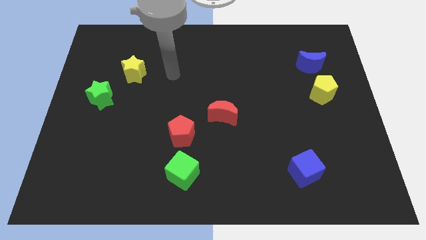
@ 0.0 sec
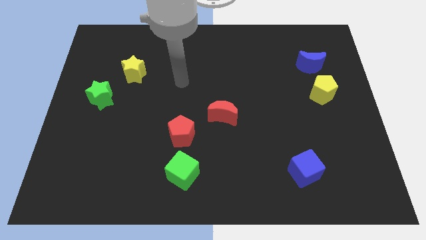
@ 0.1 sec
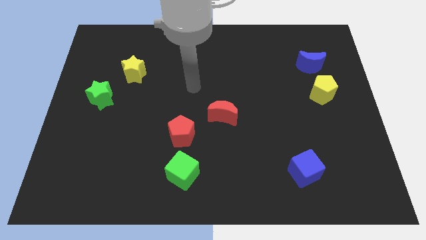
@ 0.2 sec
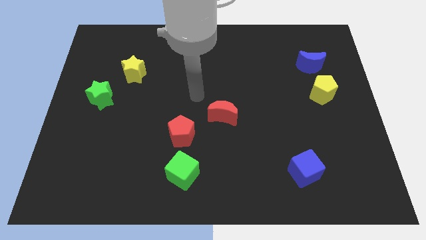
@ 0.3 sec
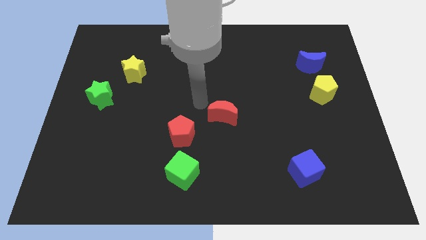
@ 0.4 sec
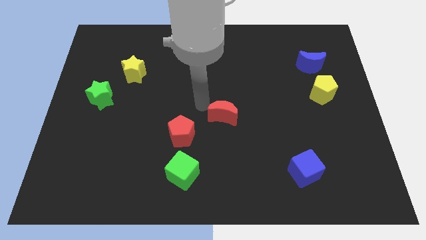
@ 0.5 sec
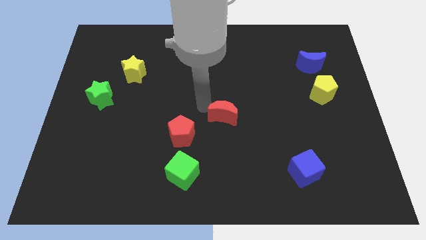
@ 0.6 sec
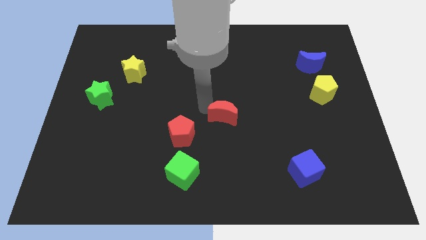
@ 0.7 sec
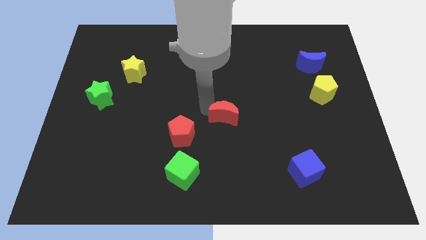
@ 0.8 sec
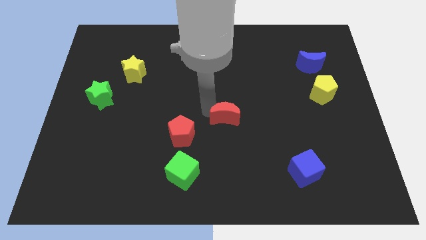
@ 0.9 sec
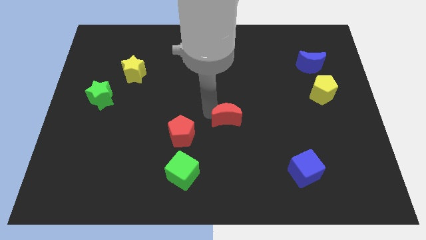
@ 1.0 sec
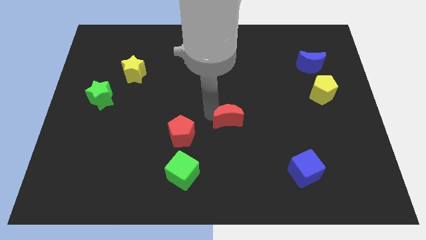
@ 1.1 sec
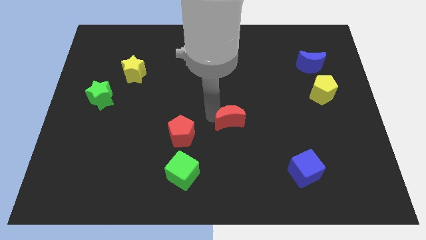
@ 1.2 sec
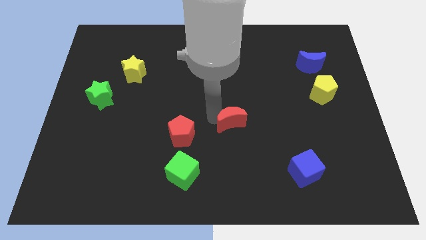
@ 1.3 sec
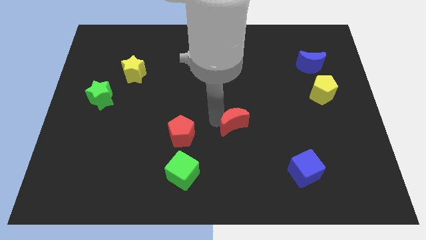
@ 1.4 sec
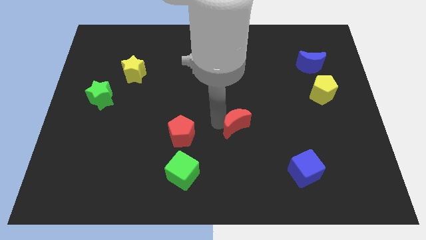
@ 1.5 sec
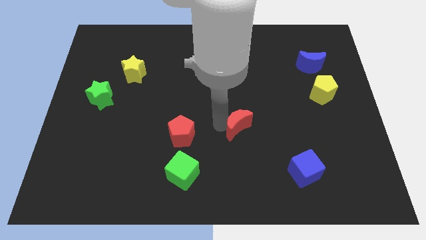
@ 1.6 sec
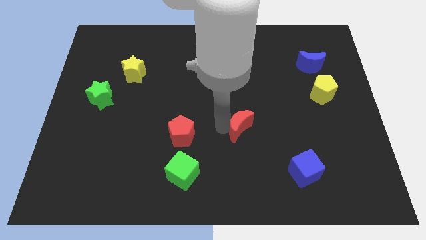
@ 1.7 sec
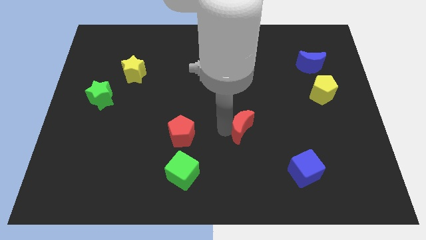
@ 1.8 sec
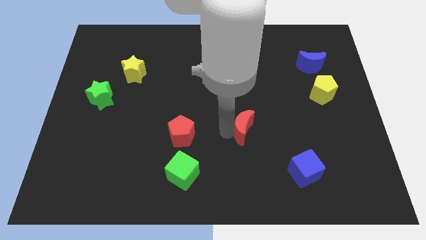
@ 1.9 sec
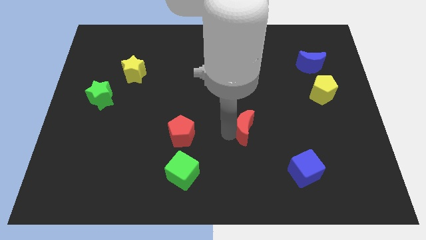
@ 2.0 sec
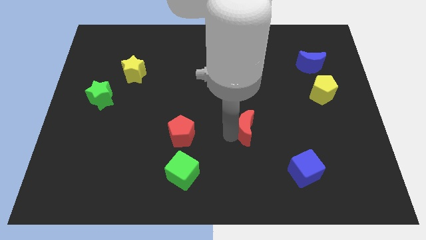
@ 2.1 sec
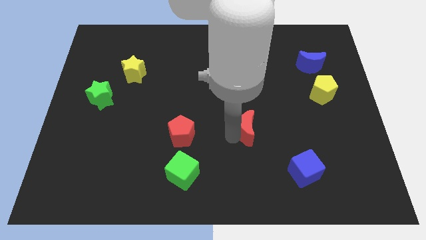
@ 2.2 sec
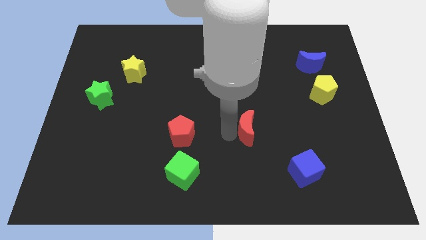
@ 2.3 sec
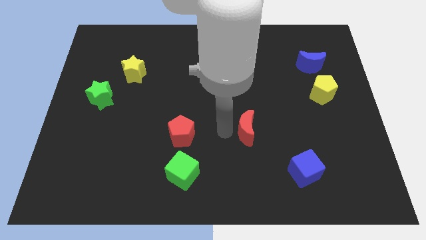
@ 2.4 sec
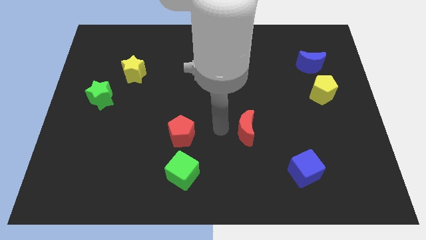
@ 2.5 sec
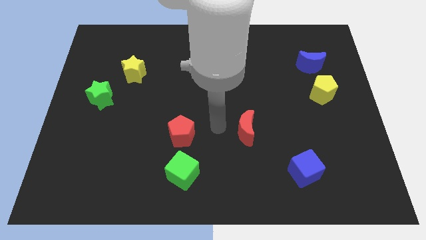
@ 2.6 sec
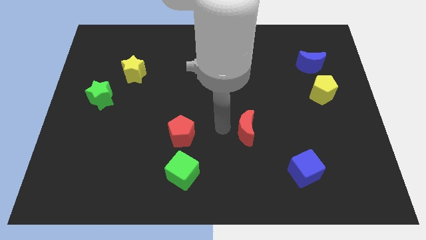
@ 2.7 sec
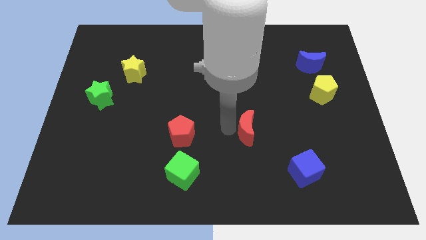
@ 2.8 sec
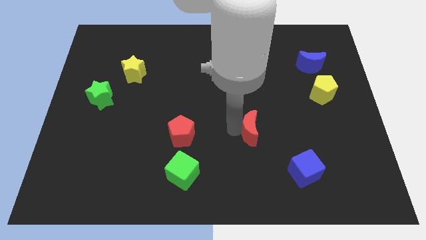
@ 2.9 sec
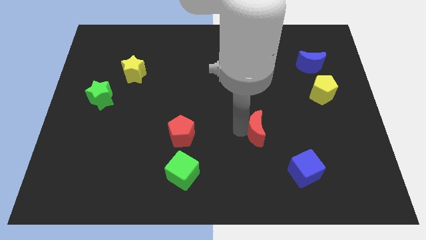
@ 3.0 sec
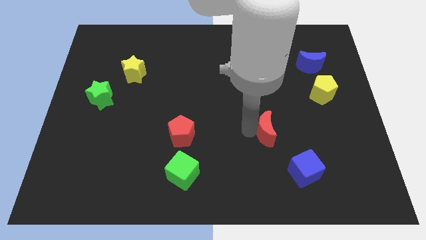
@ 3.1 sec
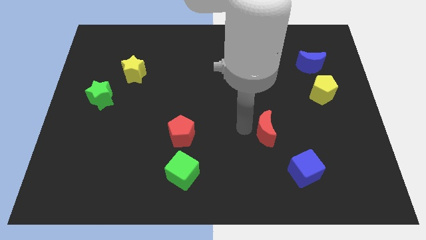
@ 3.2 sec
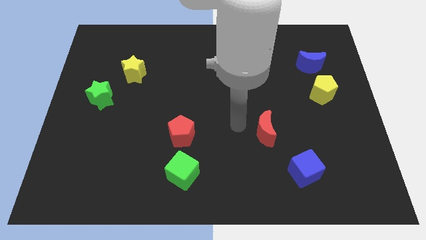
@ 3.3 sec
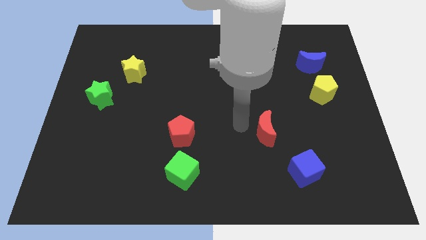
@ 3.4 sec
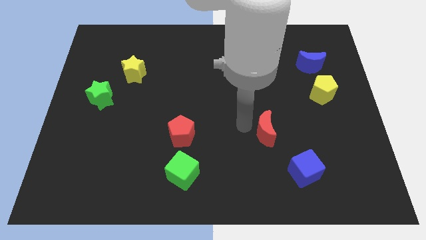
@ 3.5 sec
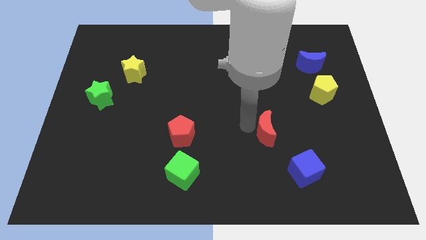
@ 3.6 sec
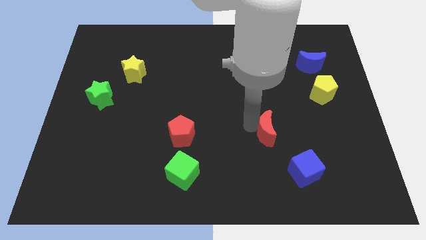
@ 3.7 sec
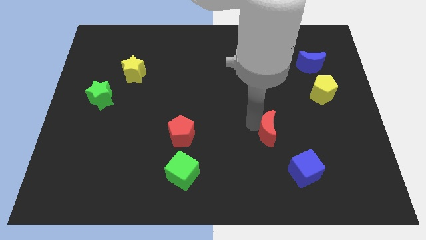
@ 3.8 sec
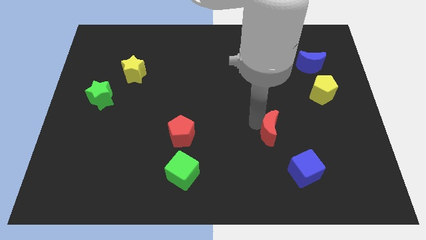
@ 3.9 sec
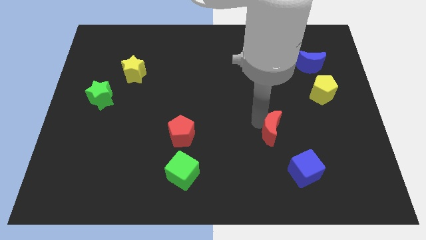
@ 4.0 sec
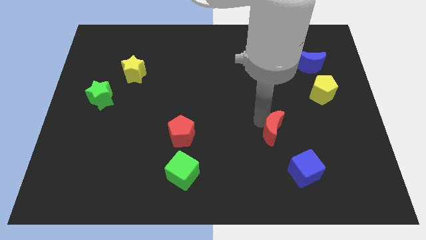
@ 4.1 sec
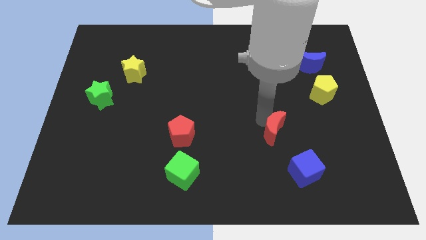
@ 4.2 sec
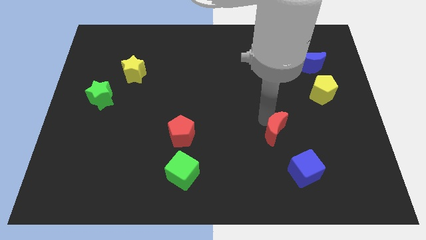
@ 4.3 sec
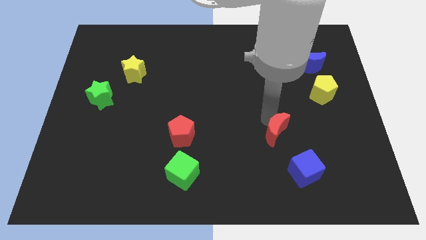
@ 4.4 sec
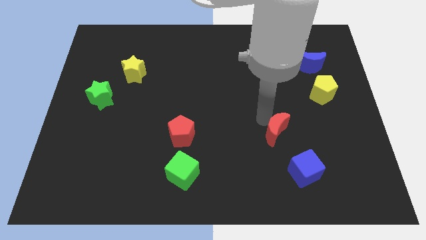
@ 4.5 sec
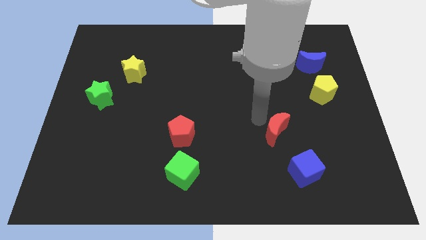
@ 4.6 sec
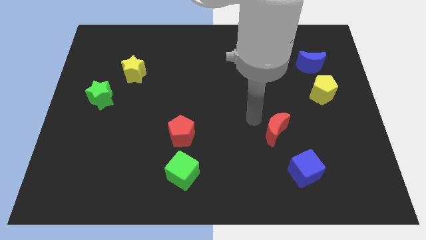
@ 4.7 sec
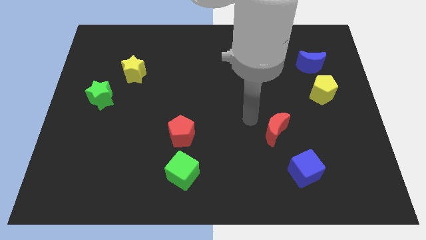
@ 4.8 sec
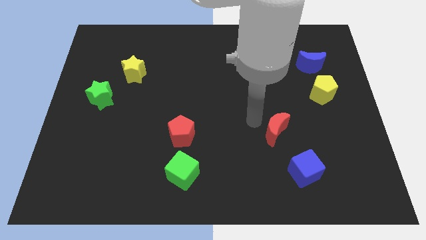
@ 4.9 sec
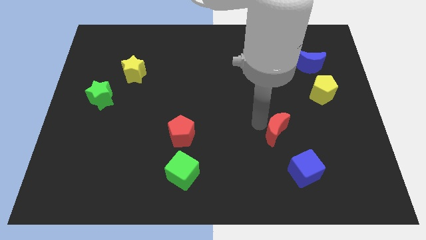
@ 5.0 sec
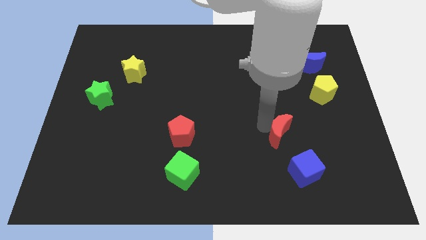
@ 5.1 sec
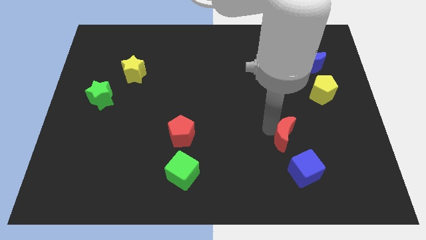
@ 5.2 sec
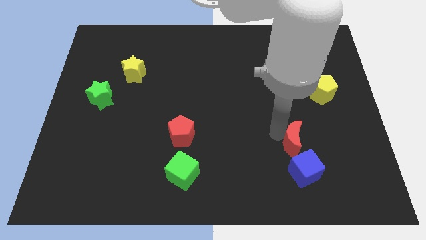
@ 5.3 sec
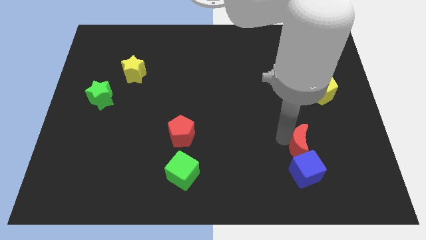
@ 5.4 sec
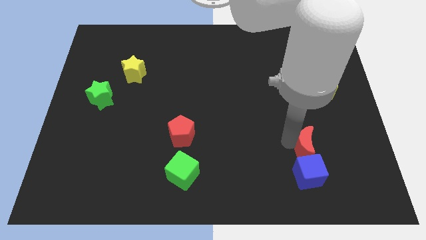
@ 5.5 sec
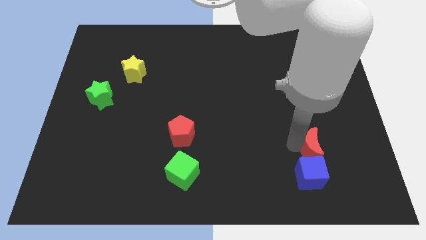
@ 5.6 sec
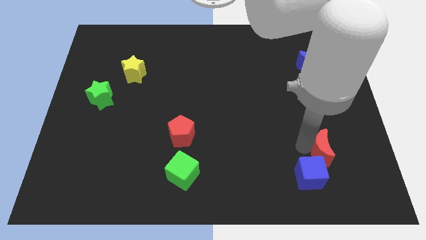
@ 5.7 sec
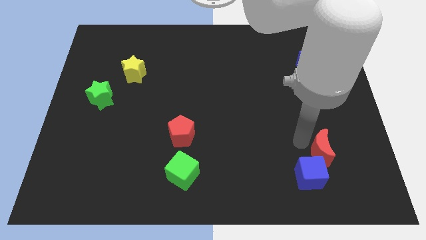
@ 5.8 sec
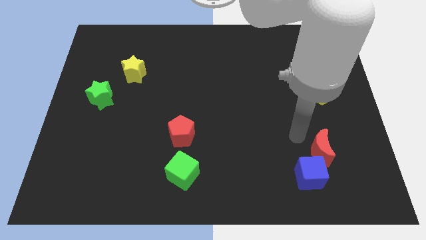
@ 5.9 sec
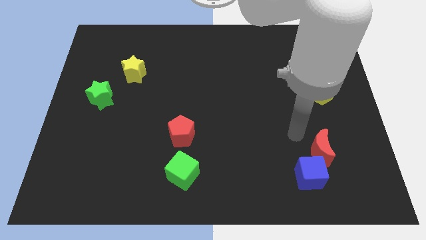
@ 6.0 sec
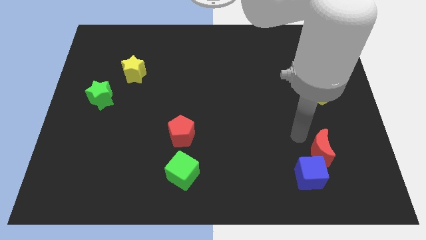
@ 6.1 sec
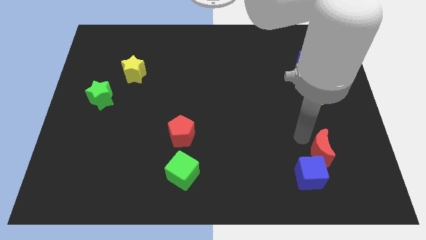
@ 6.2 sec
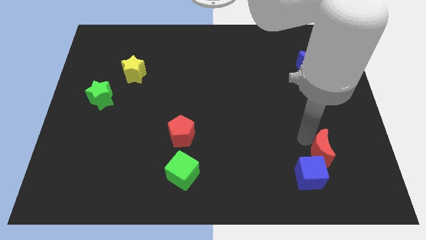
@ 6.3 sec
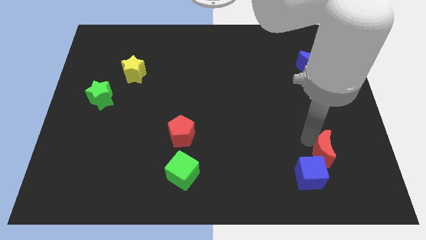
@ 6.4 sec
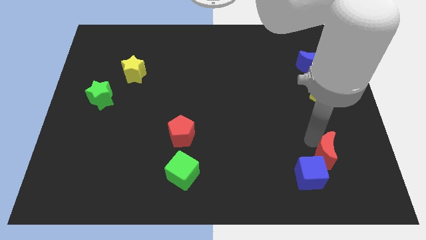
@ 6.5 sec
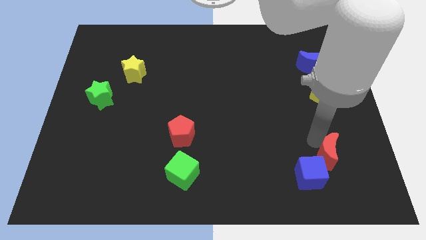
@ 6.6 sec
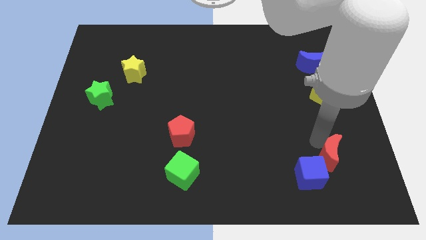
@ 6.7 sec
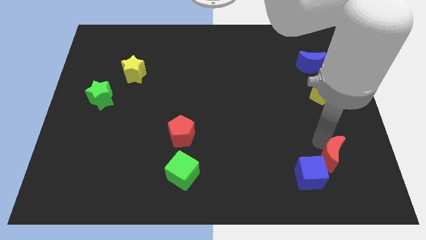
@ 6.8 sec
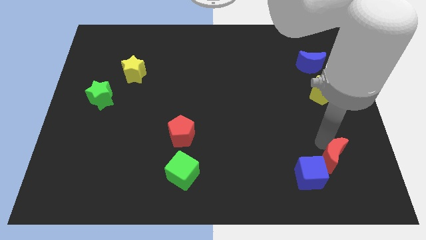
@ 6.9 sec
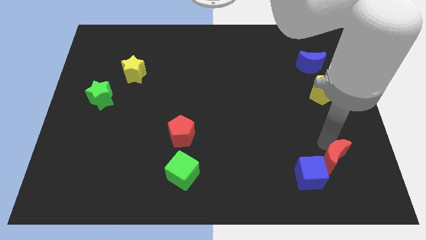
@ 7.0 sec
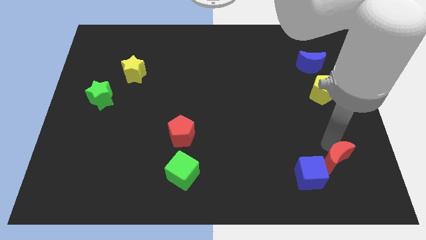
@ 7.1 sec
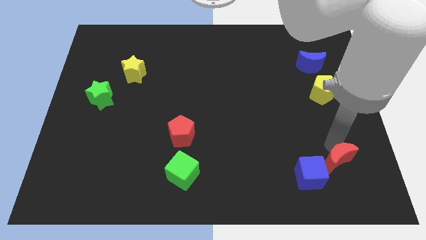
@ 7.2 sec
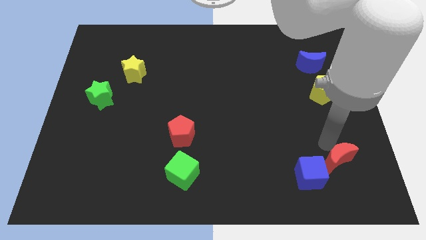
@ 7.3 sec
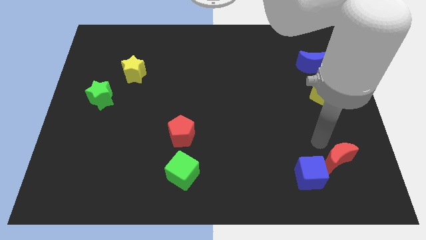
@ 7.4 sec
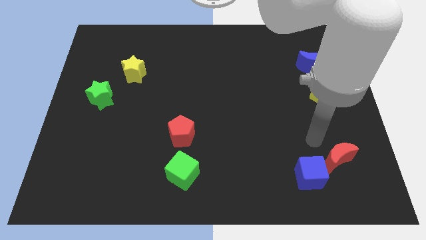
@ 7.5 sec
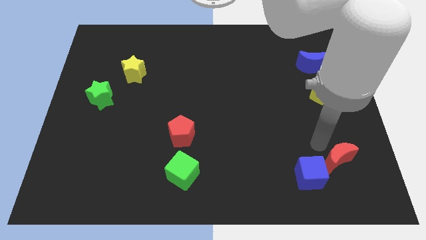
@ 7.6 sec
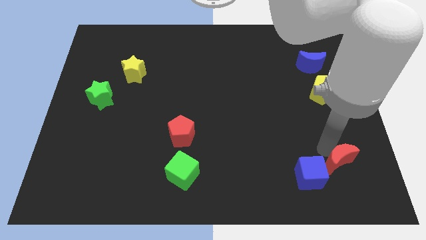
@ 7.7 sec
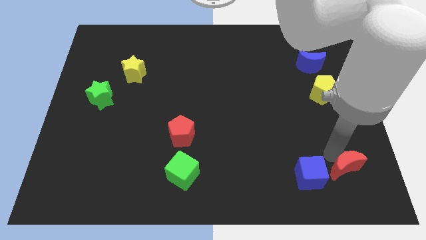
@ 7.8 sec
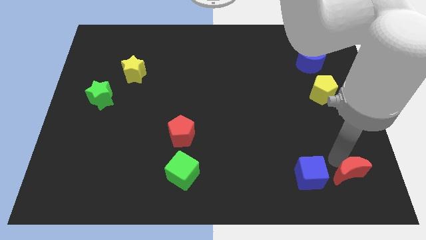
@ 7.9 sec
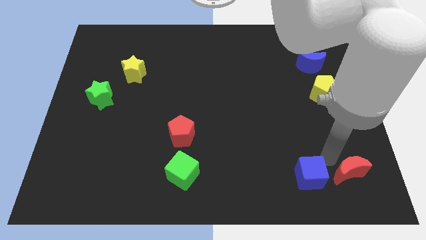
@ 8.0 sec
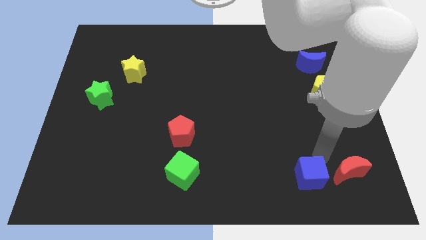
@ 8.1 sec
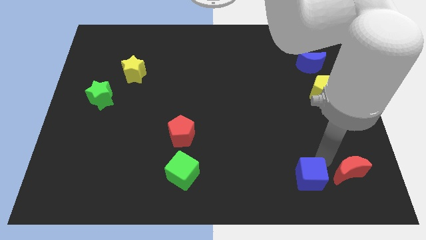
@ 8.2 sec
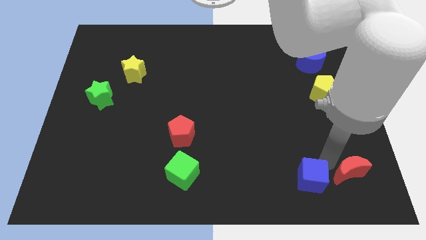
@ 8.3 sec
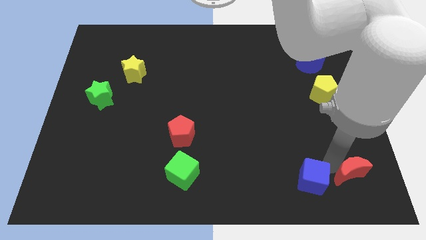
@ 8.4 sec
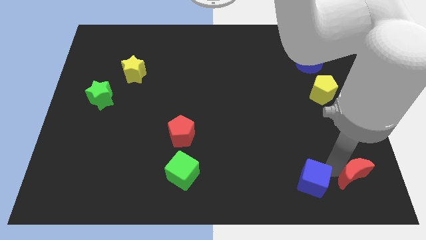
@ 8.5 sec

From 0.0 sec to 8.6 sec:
slide the red moon to the bottom right corner
